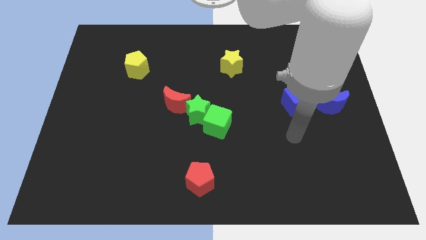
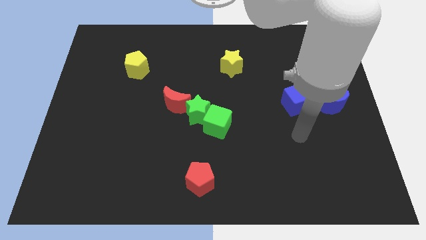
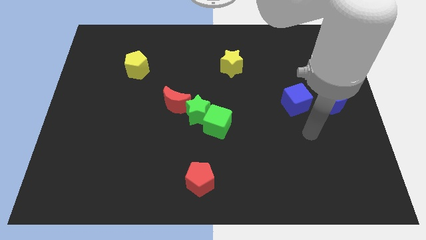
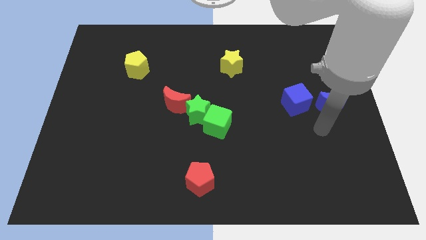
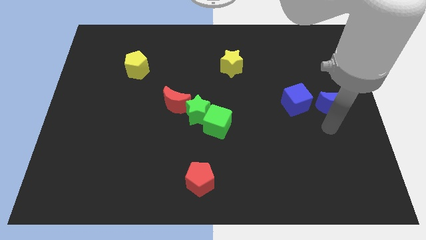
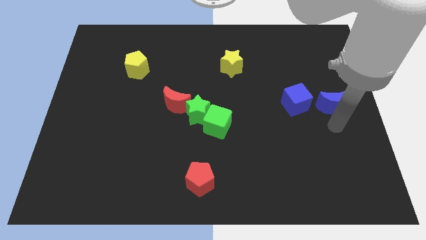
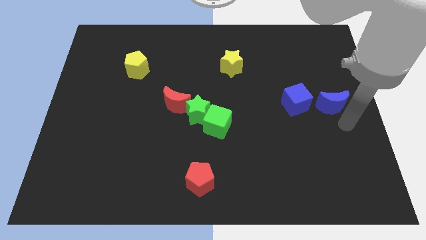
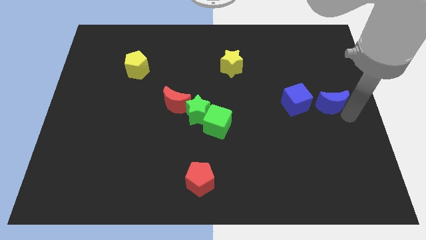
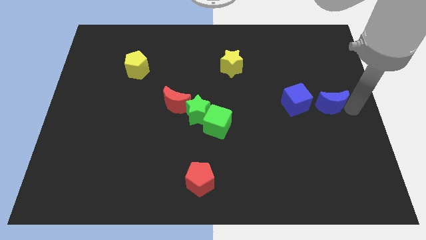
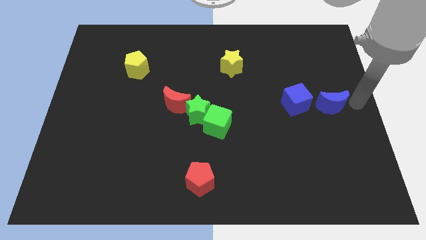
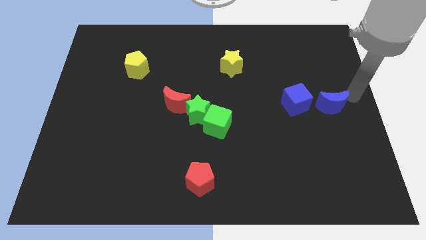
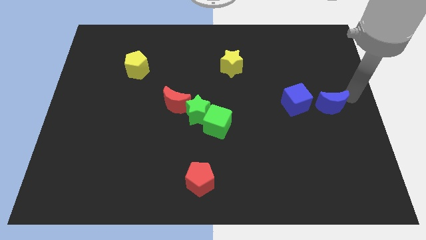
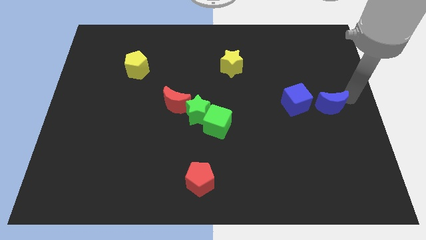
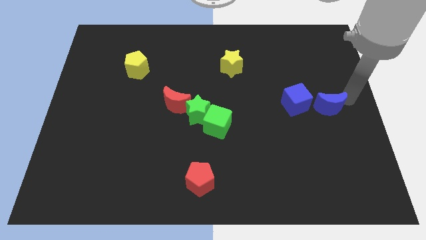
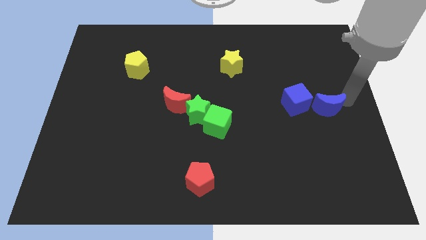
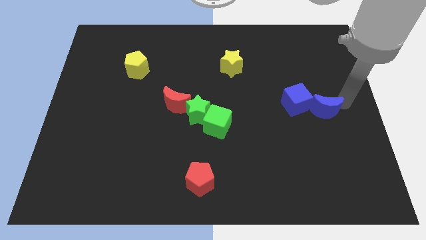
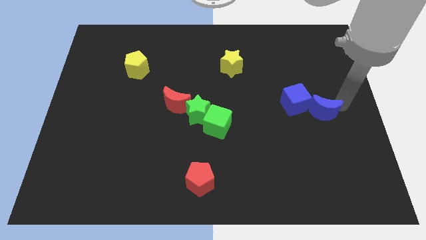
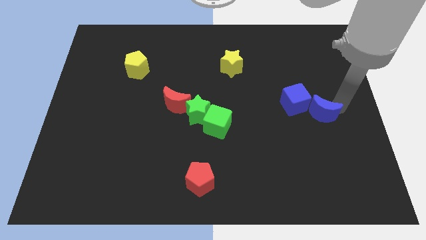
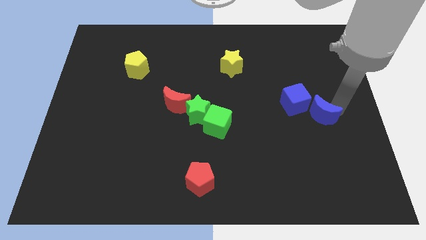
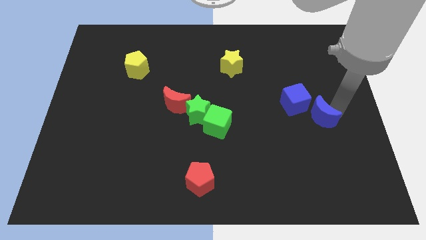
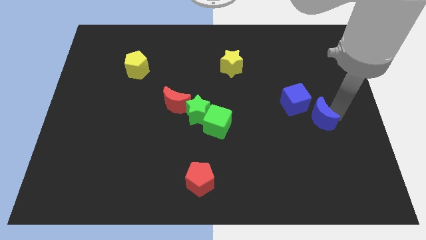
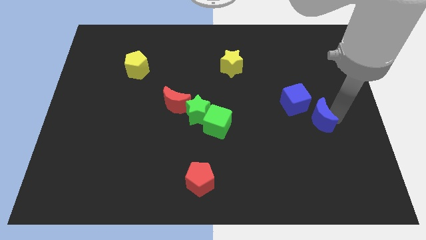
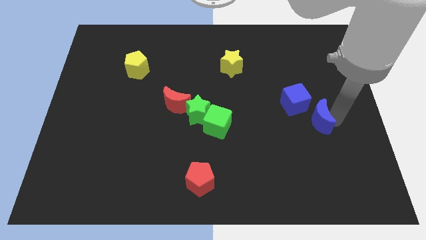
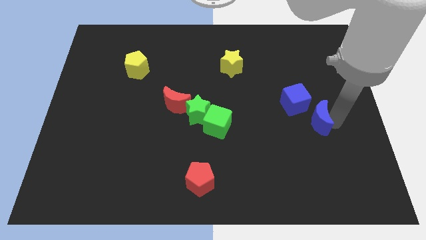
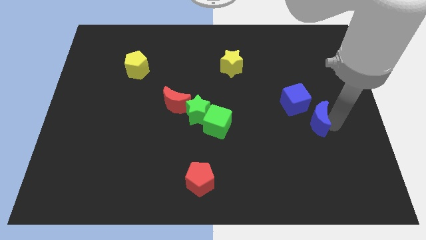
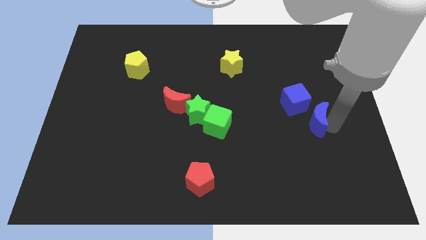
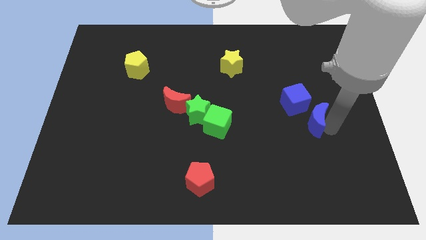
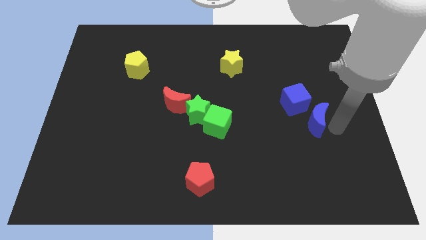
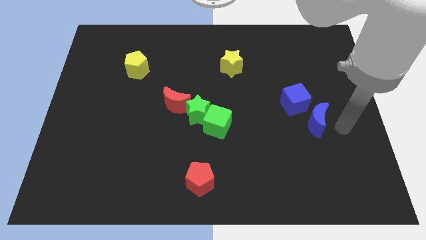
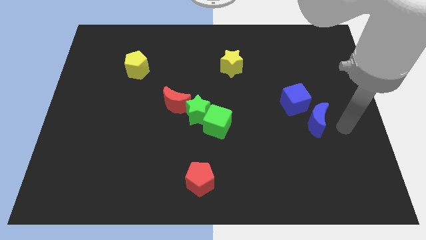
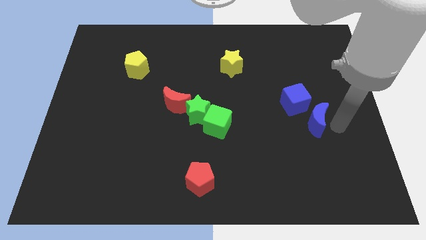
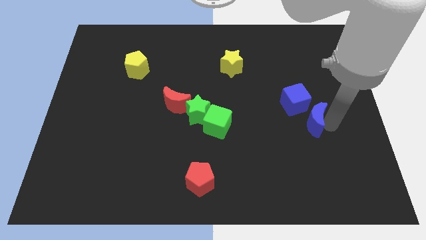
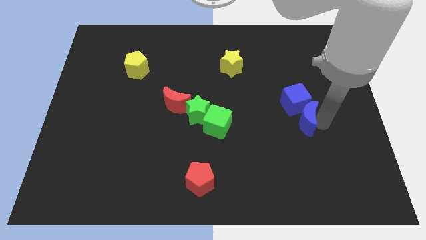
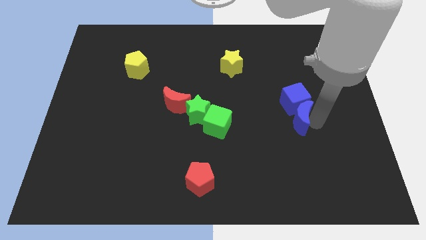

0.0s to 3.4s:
slightly slide the blue moon left

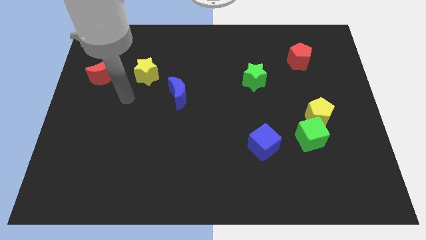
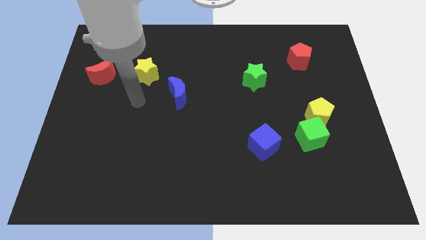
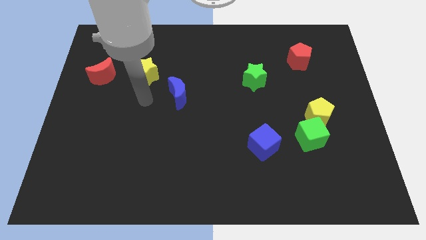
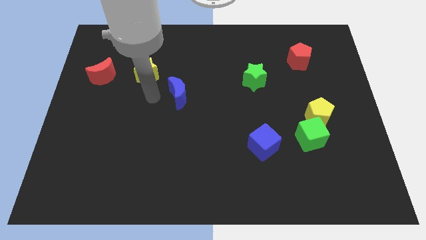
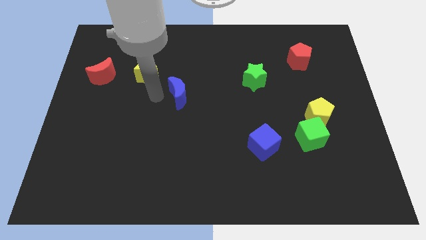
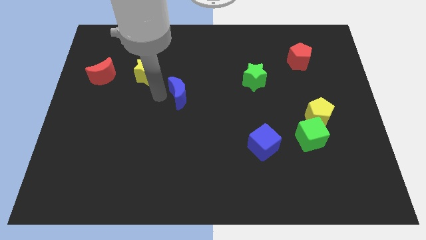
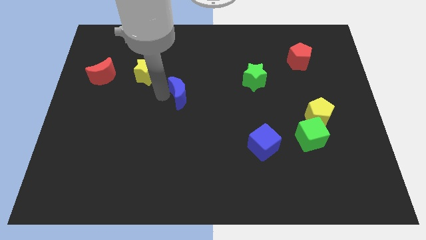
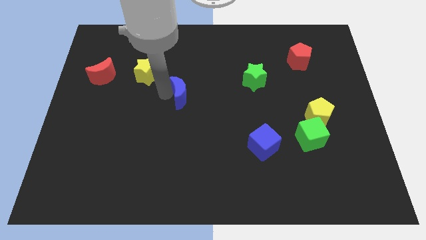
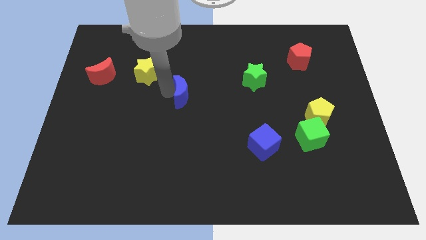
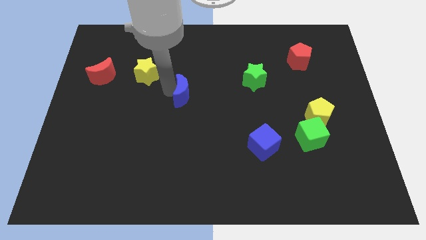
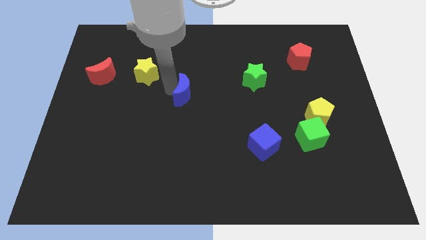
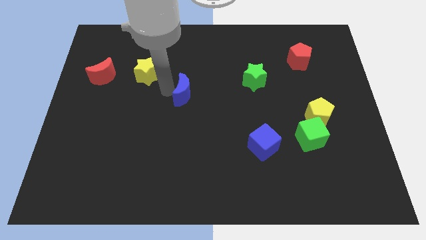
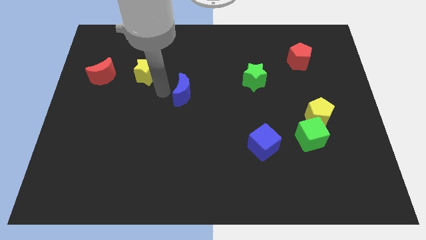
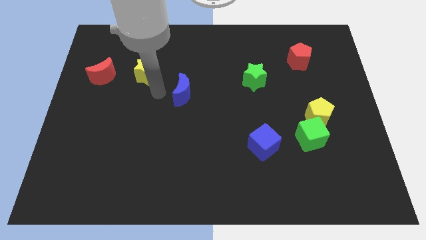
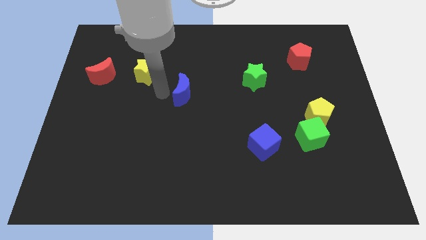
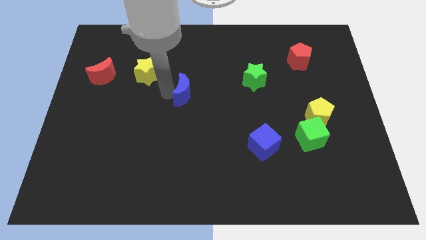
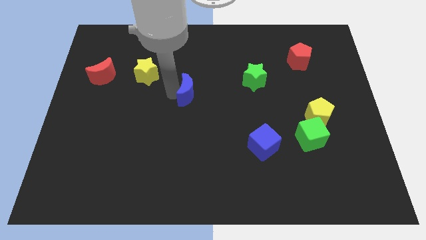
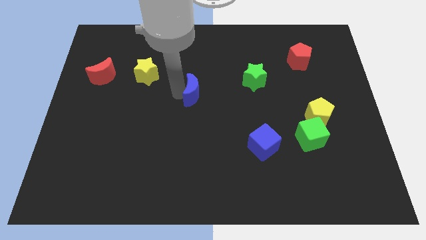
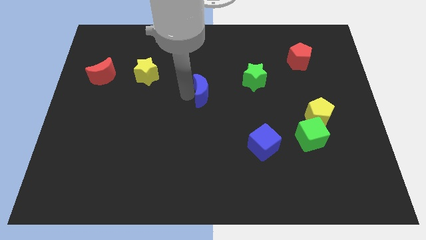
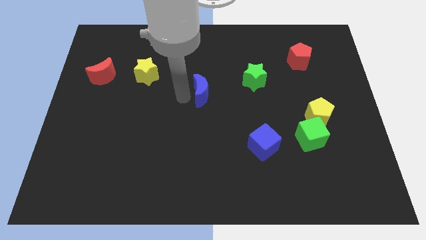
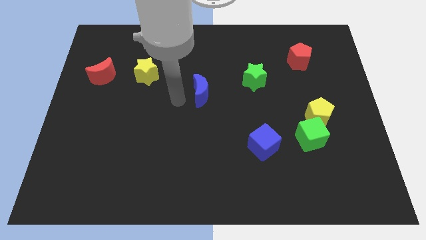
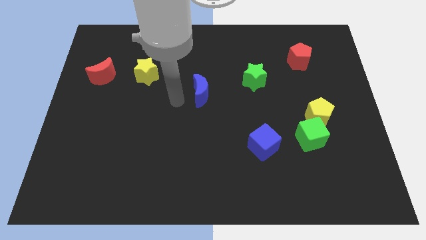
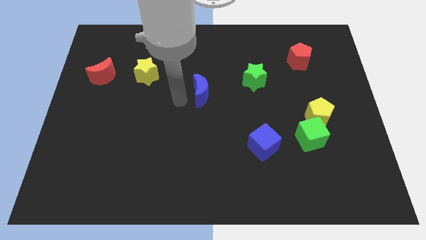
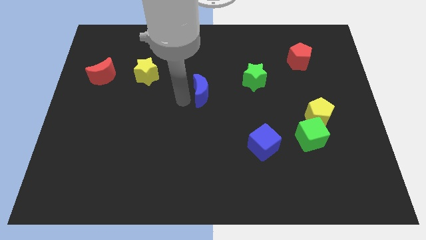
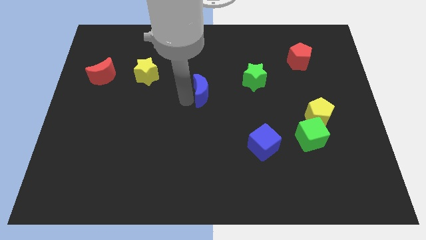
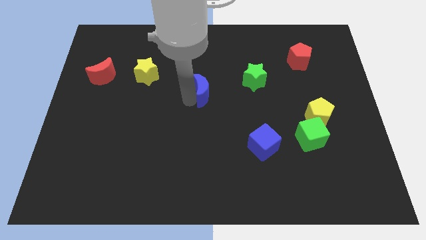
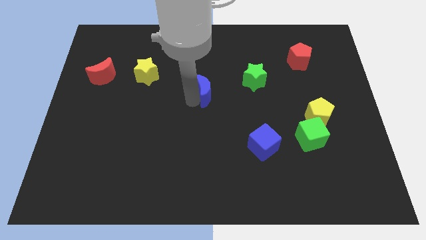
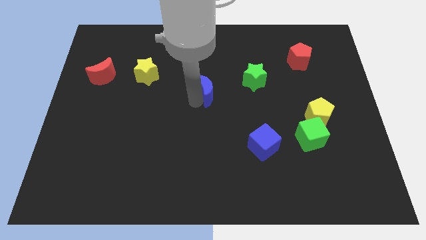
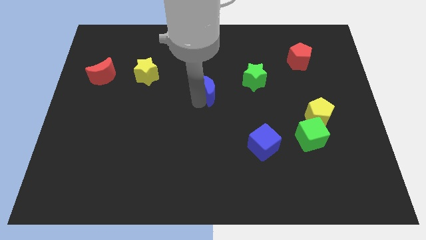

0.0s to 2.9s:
slightly move the blue moon right

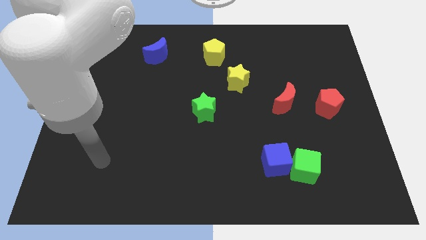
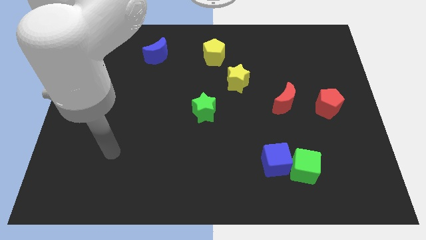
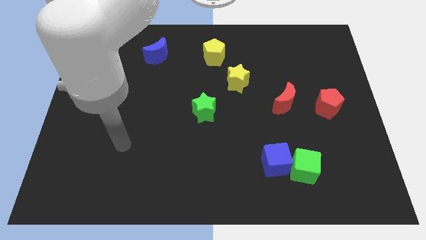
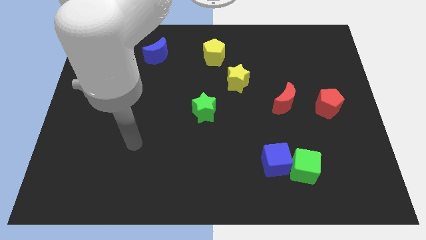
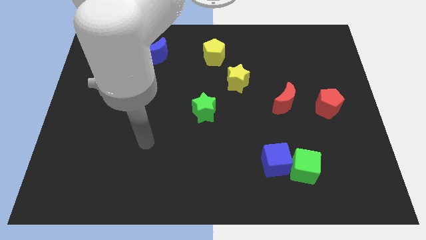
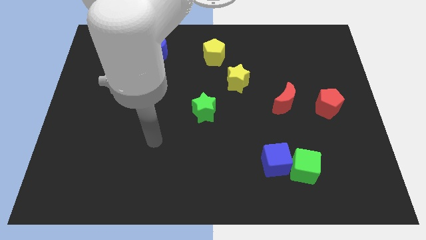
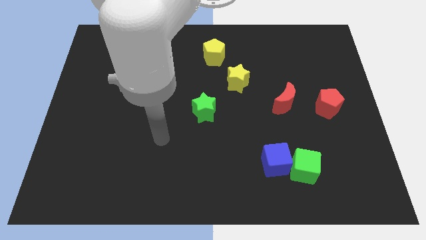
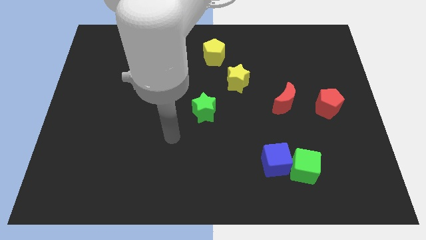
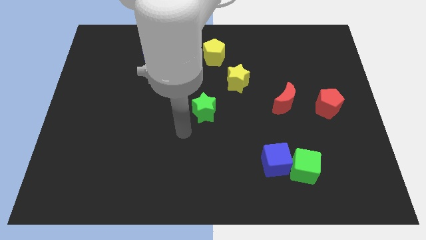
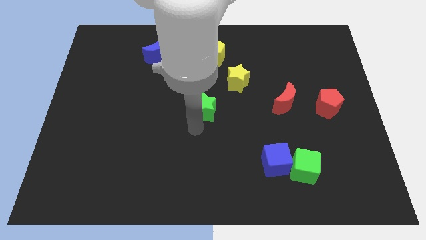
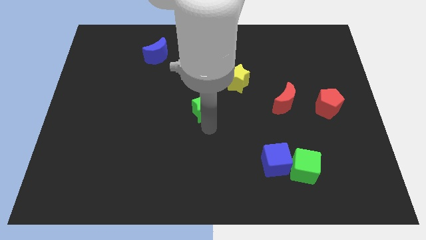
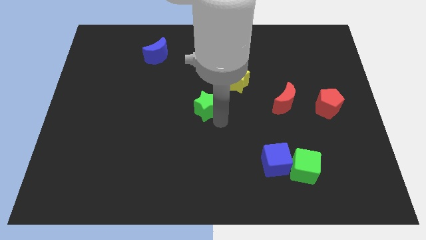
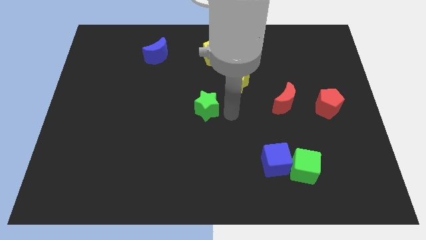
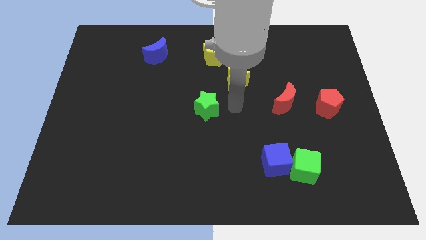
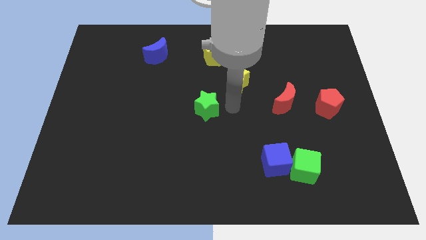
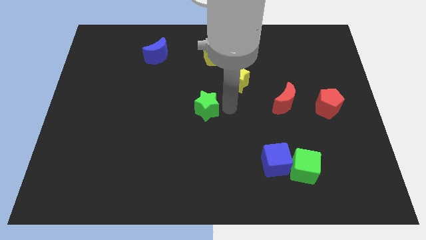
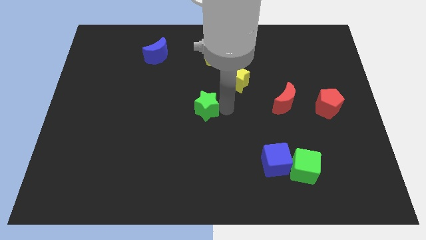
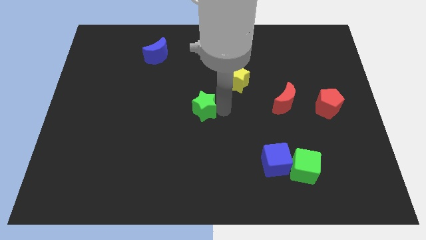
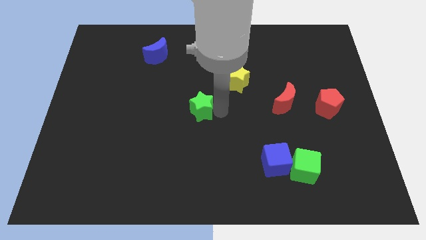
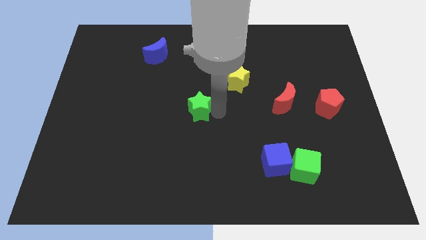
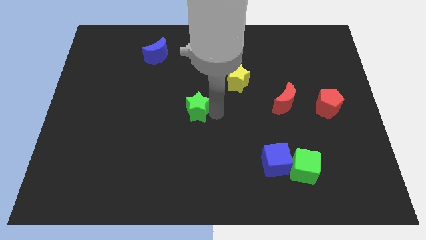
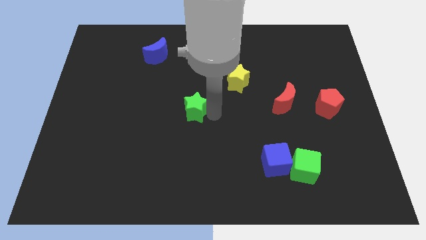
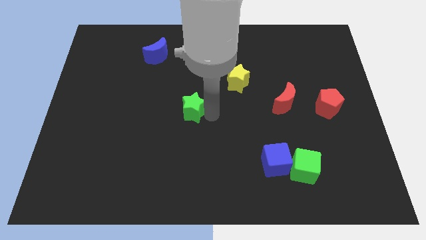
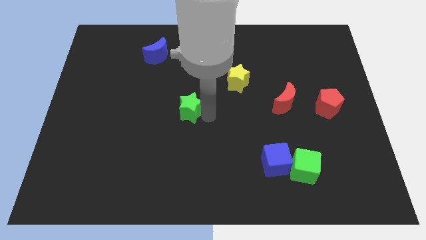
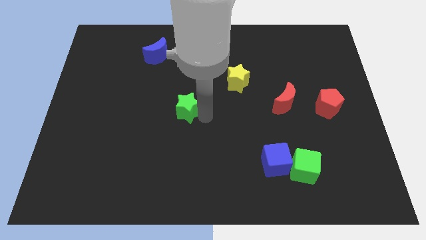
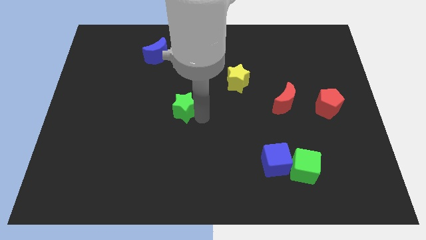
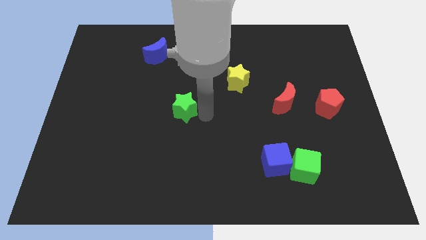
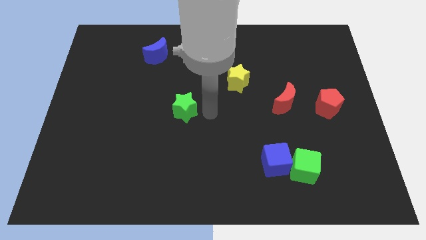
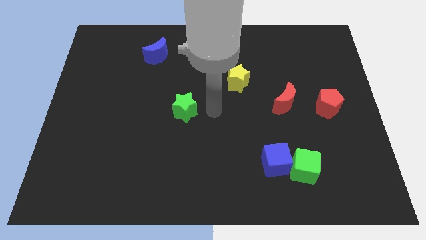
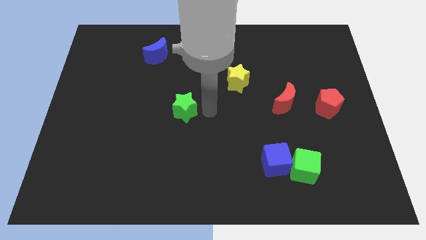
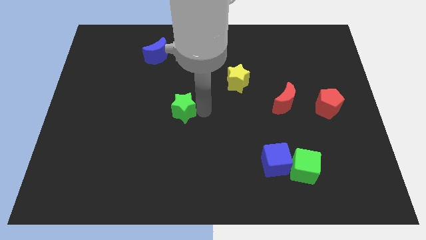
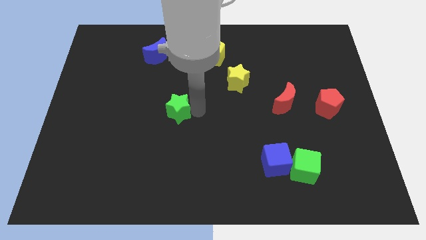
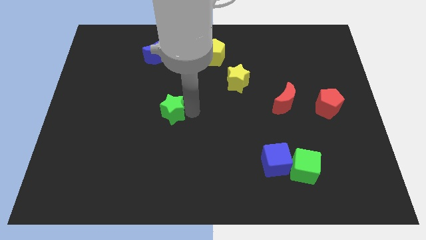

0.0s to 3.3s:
slide the green star to the left a little bit
